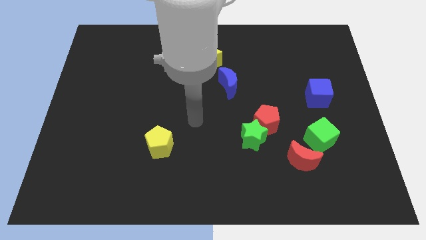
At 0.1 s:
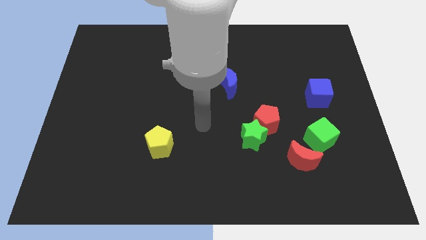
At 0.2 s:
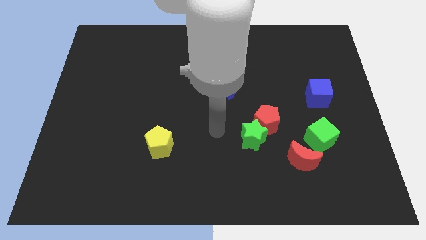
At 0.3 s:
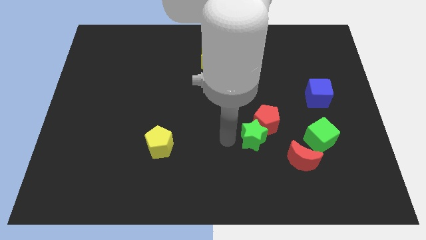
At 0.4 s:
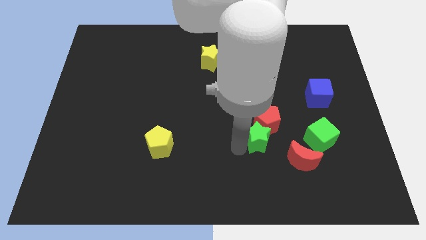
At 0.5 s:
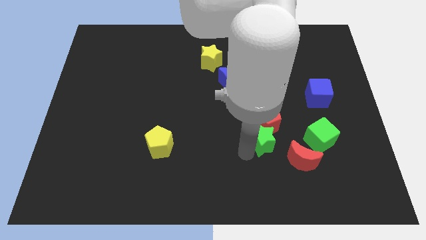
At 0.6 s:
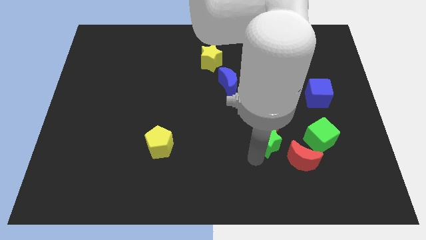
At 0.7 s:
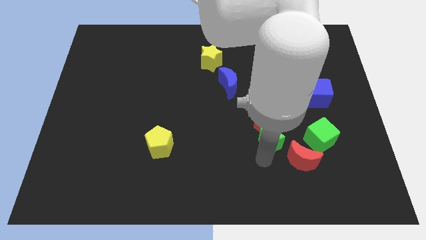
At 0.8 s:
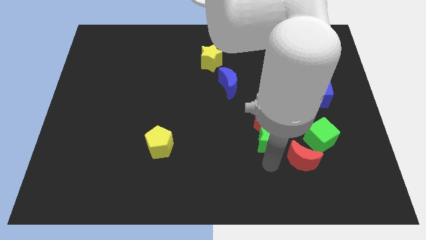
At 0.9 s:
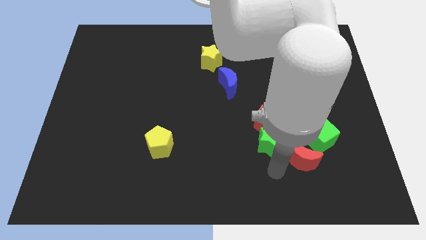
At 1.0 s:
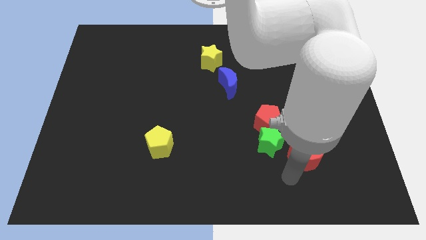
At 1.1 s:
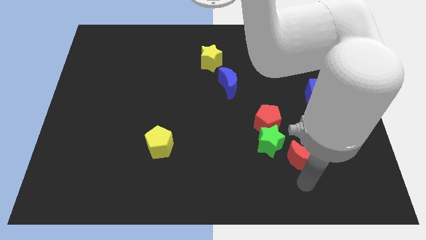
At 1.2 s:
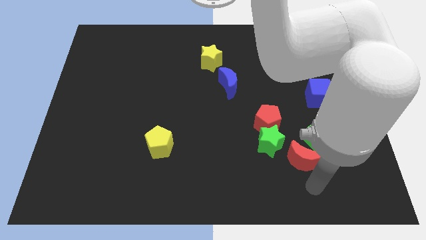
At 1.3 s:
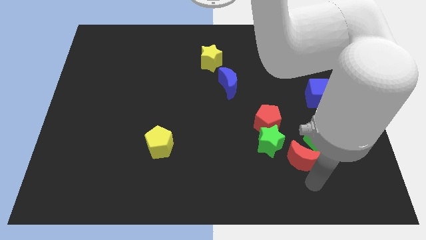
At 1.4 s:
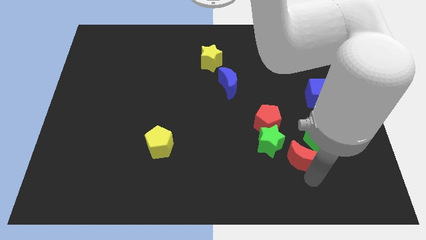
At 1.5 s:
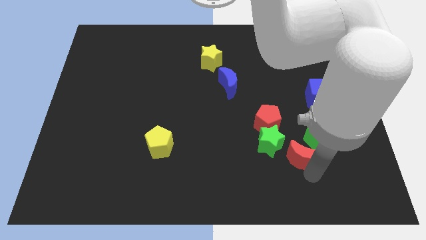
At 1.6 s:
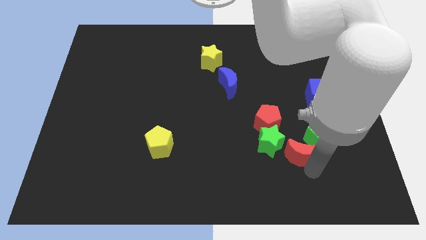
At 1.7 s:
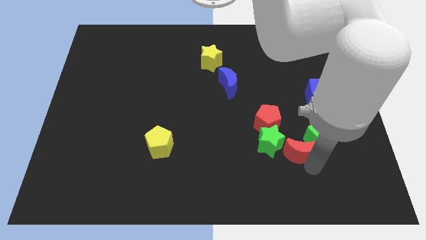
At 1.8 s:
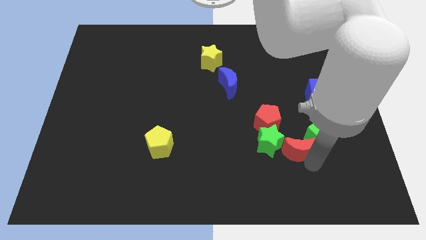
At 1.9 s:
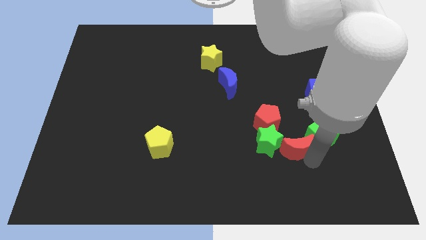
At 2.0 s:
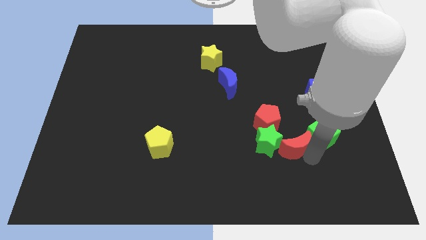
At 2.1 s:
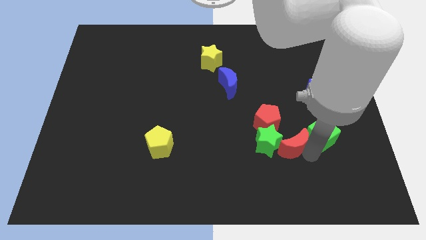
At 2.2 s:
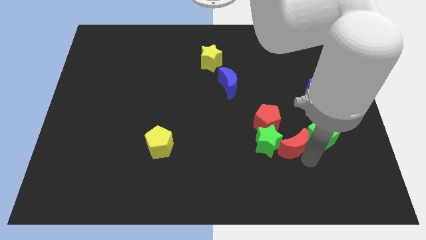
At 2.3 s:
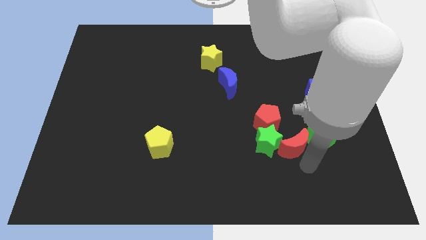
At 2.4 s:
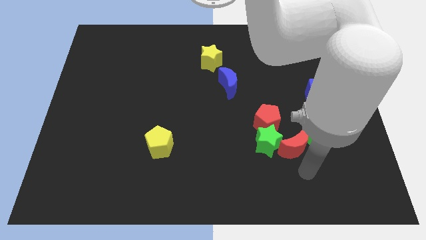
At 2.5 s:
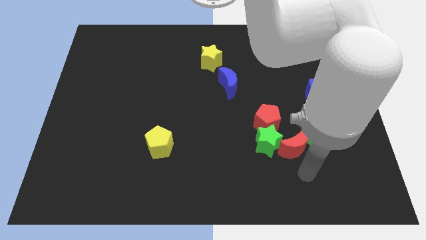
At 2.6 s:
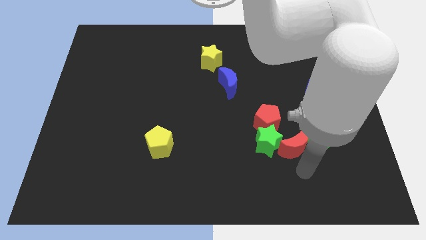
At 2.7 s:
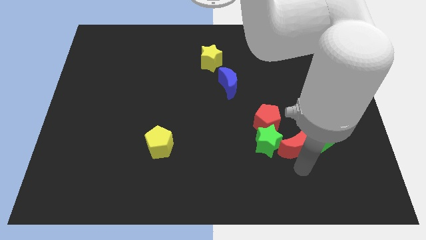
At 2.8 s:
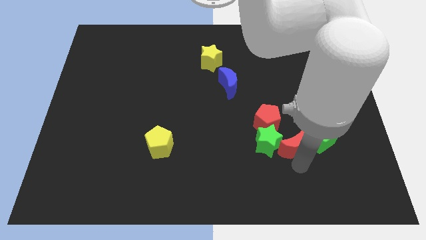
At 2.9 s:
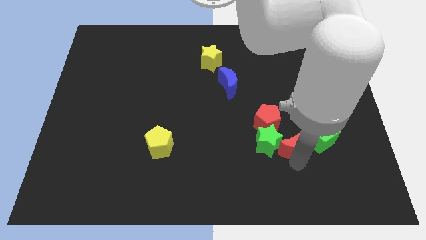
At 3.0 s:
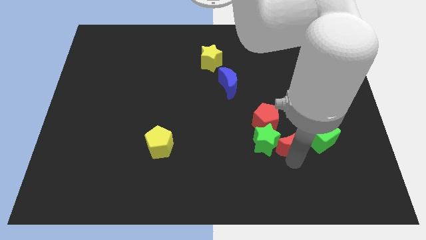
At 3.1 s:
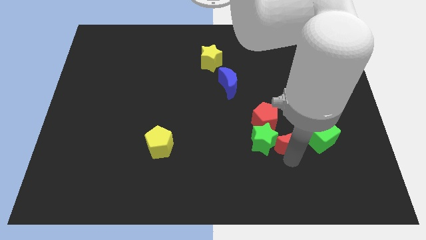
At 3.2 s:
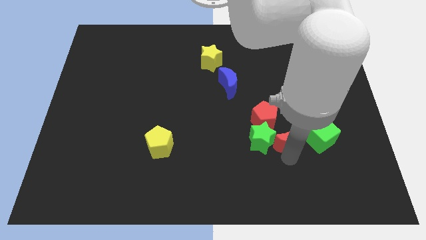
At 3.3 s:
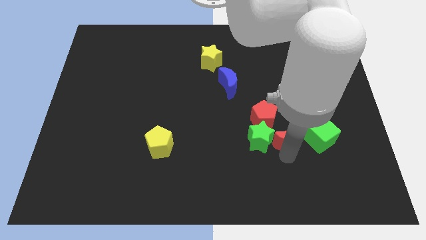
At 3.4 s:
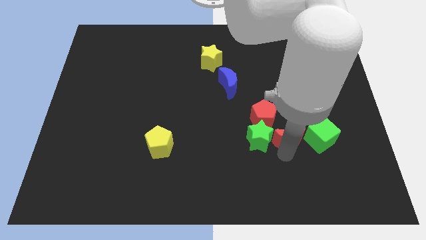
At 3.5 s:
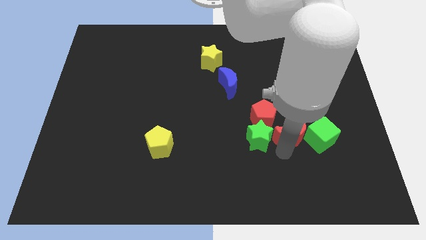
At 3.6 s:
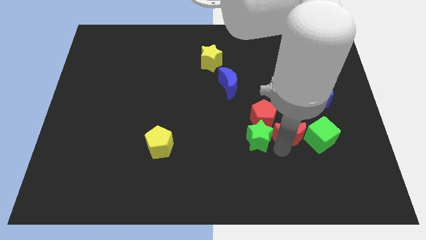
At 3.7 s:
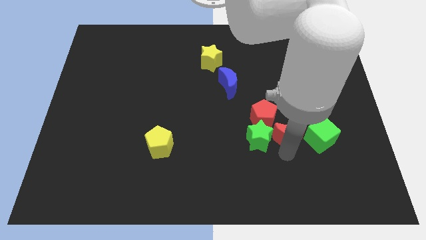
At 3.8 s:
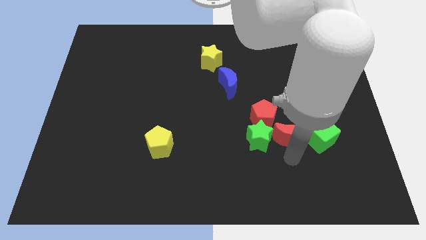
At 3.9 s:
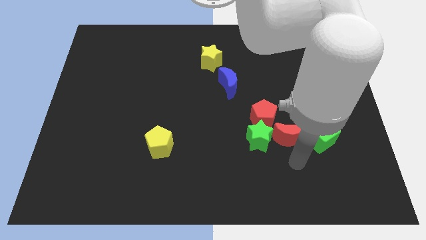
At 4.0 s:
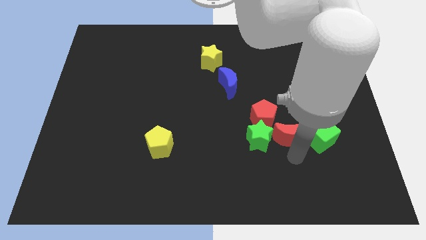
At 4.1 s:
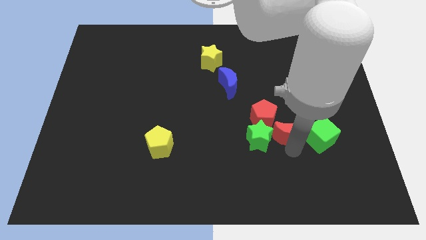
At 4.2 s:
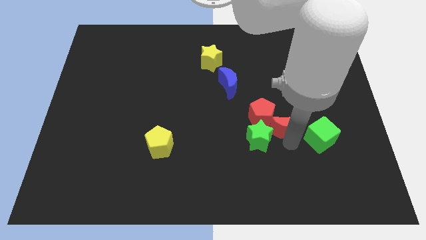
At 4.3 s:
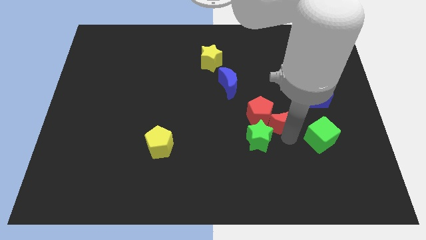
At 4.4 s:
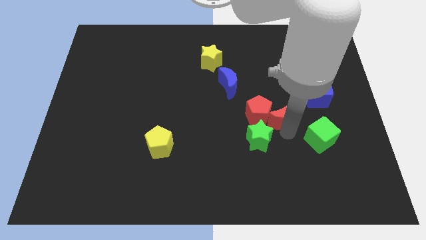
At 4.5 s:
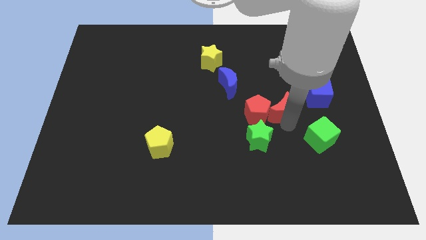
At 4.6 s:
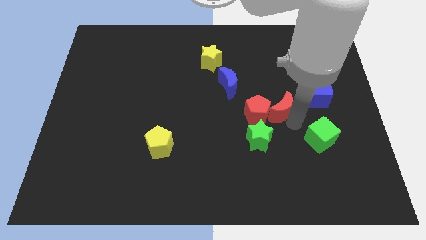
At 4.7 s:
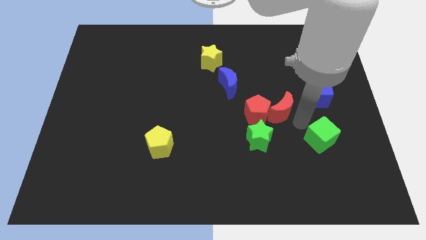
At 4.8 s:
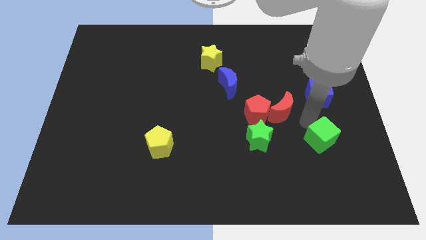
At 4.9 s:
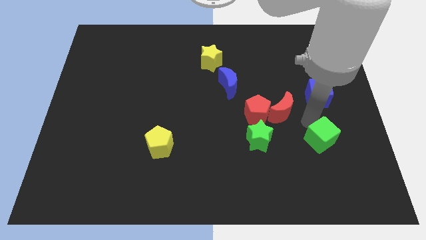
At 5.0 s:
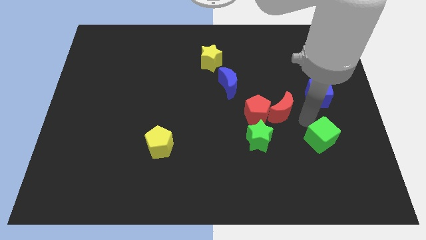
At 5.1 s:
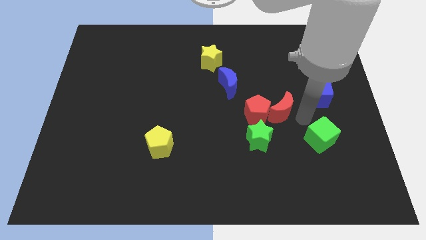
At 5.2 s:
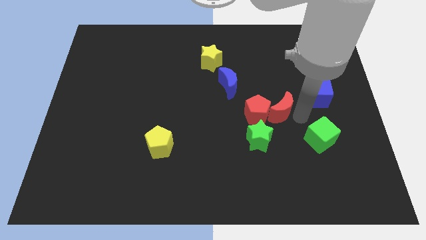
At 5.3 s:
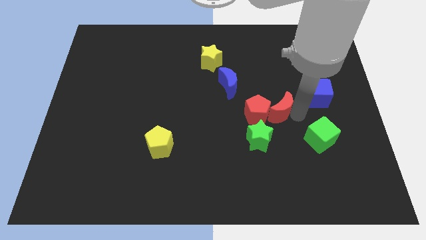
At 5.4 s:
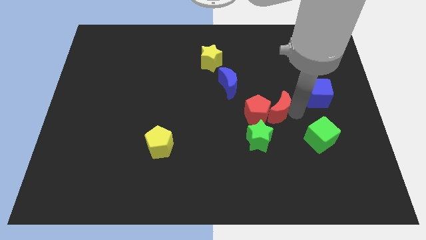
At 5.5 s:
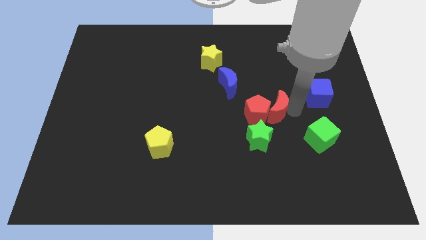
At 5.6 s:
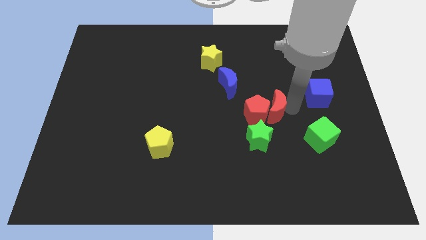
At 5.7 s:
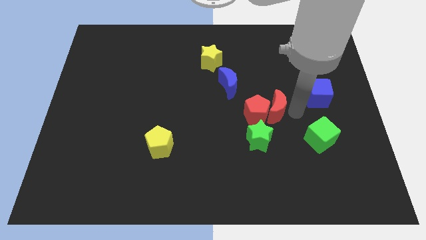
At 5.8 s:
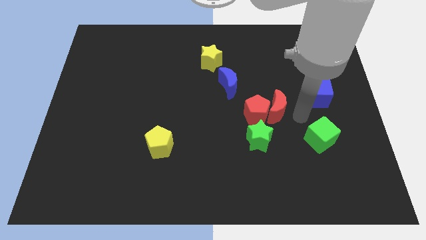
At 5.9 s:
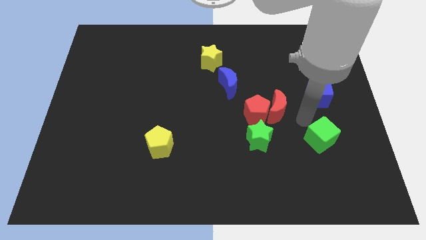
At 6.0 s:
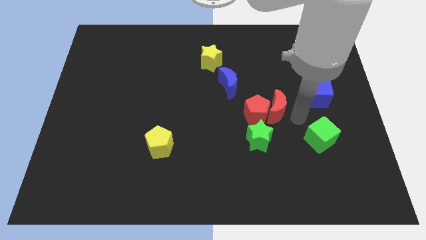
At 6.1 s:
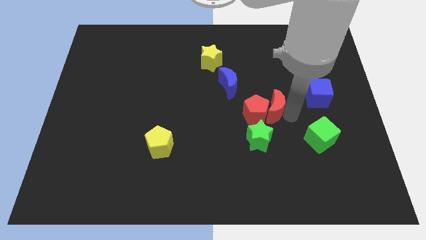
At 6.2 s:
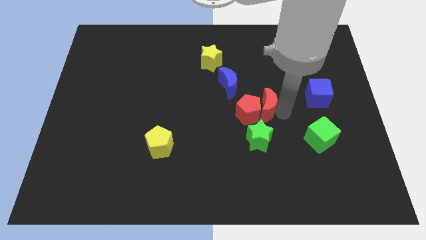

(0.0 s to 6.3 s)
slide the red moon to the bottom right side of the blue moon

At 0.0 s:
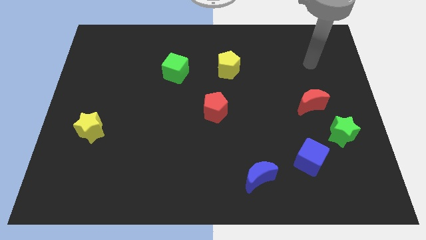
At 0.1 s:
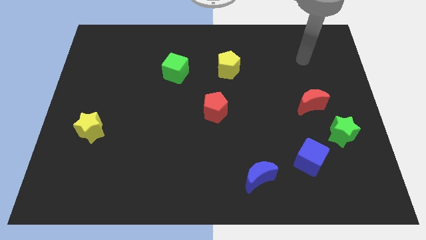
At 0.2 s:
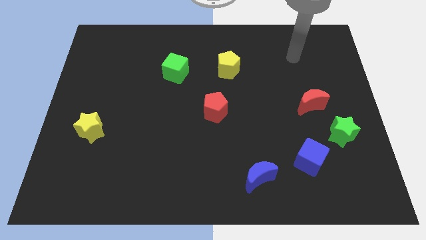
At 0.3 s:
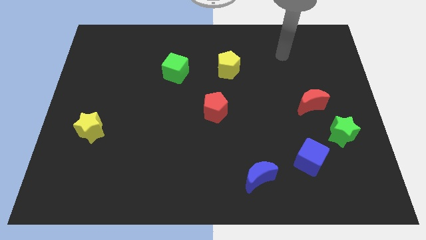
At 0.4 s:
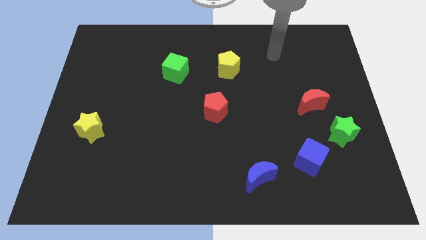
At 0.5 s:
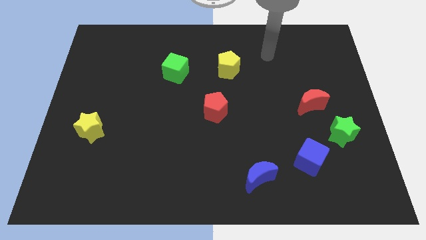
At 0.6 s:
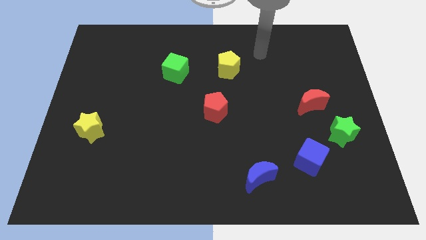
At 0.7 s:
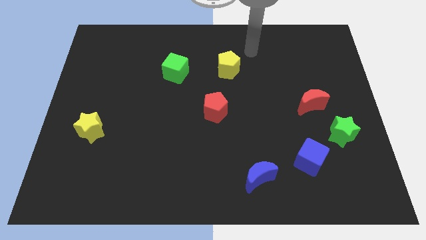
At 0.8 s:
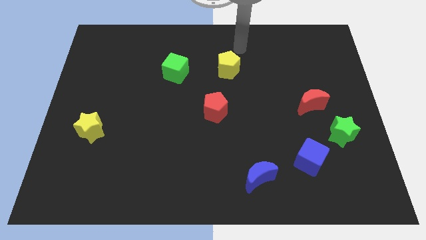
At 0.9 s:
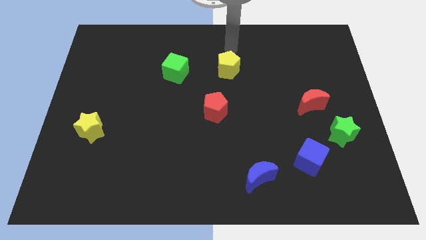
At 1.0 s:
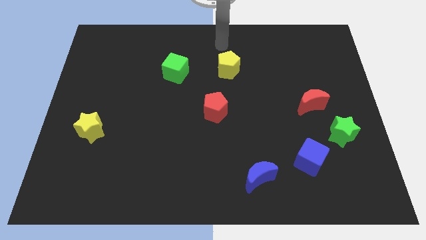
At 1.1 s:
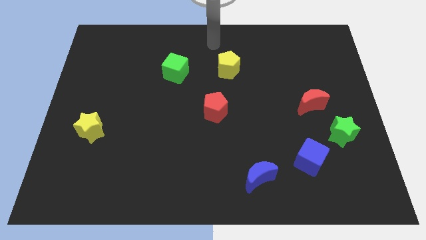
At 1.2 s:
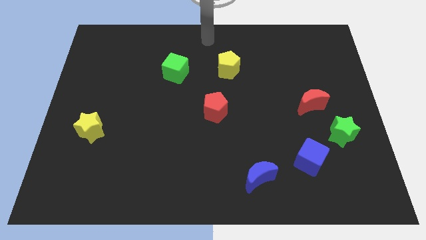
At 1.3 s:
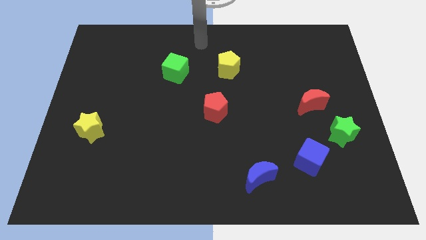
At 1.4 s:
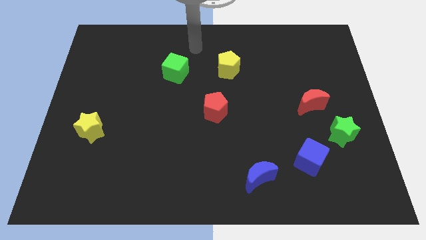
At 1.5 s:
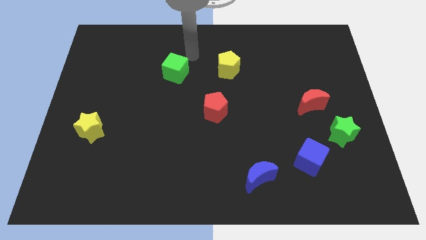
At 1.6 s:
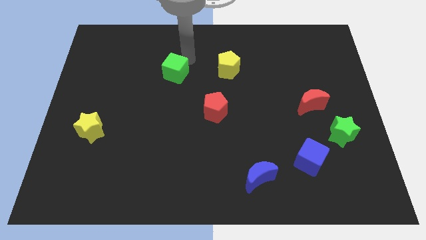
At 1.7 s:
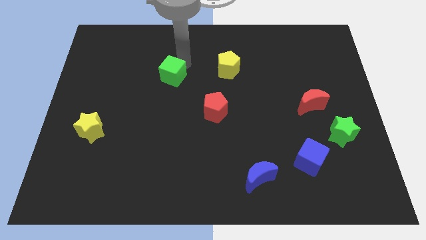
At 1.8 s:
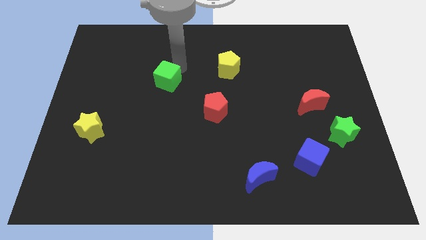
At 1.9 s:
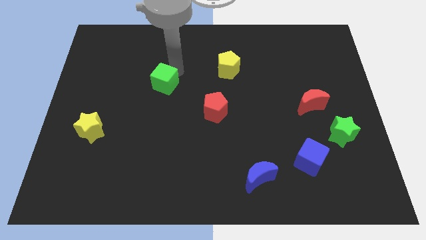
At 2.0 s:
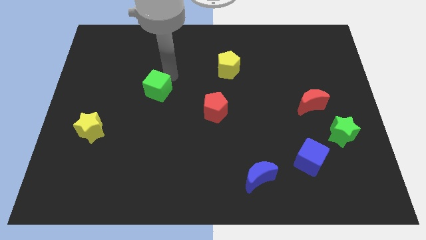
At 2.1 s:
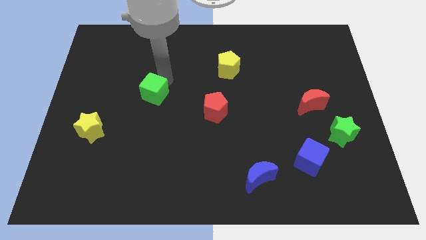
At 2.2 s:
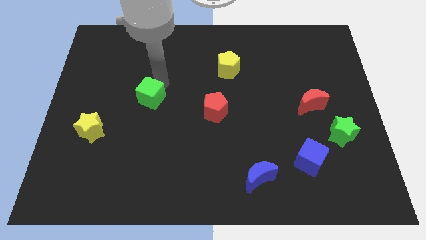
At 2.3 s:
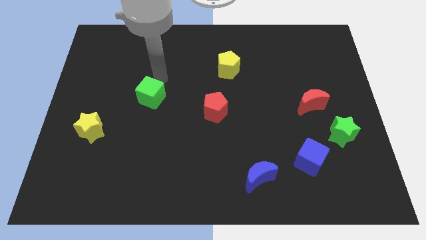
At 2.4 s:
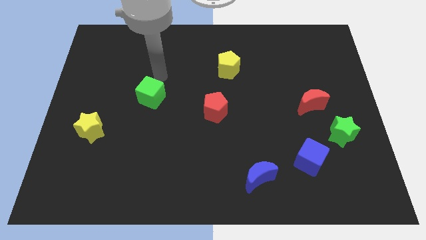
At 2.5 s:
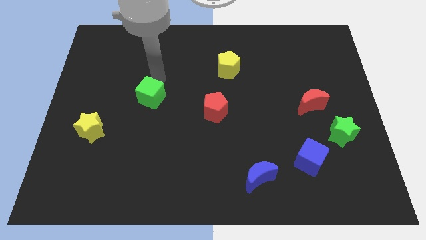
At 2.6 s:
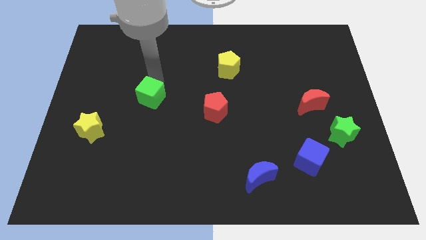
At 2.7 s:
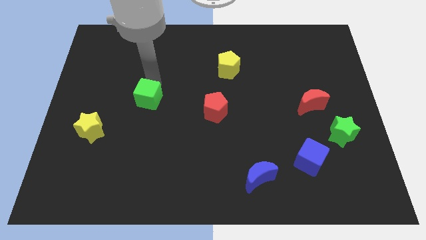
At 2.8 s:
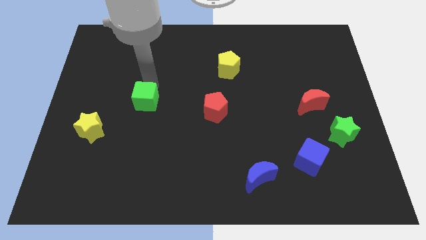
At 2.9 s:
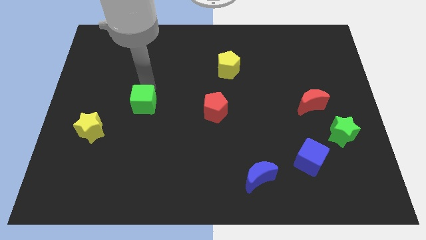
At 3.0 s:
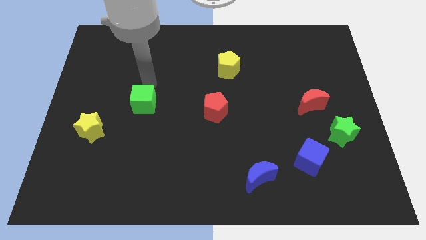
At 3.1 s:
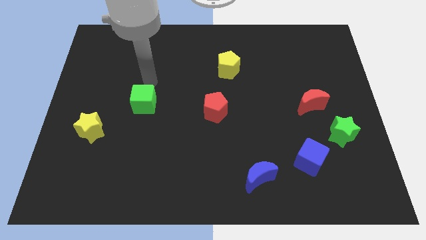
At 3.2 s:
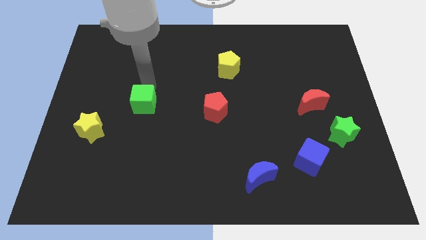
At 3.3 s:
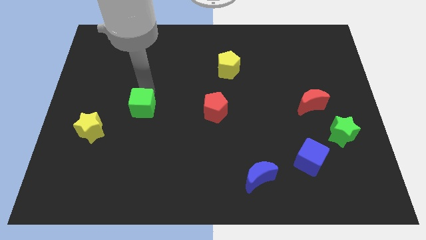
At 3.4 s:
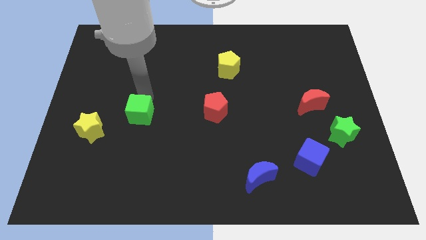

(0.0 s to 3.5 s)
slide the green cube to the right side of the yellow star
